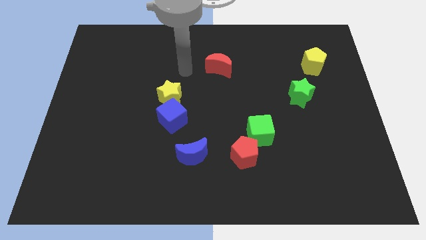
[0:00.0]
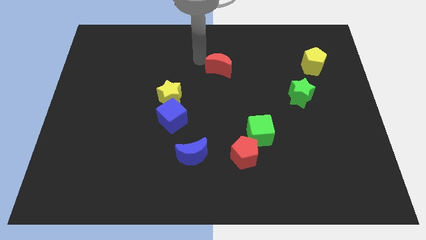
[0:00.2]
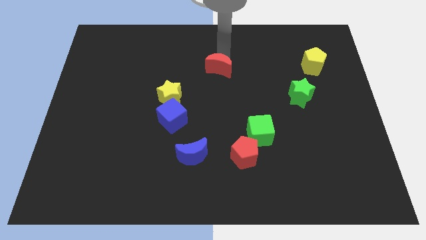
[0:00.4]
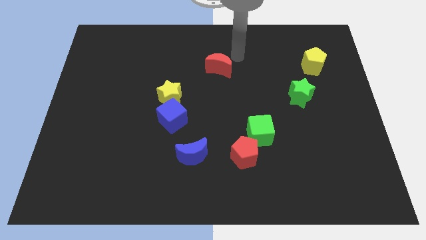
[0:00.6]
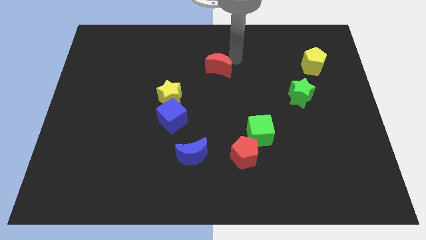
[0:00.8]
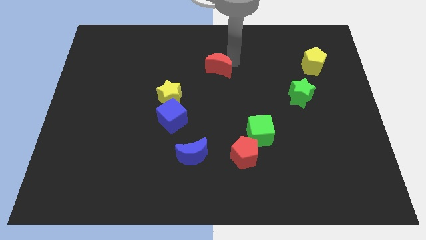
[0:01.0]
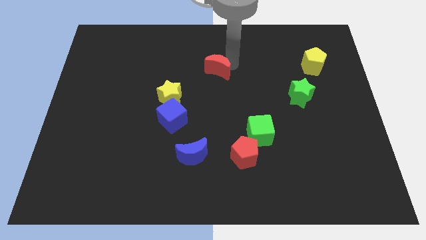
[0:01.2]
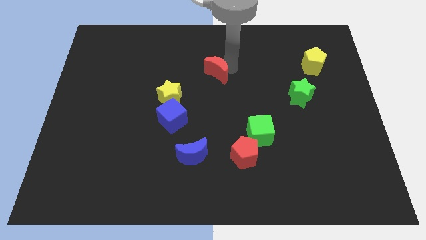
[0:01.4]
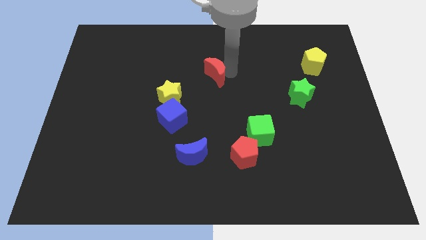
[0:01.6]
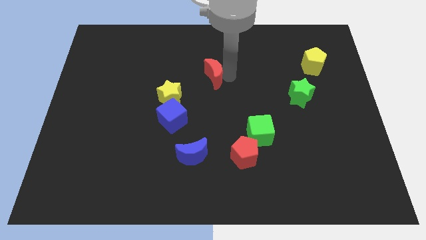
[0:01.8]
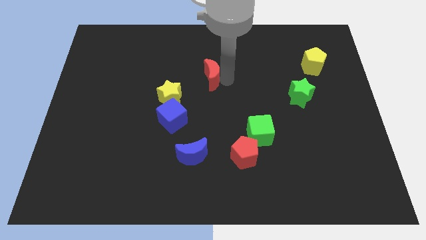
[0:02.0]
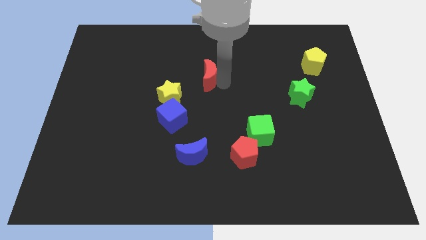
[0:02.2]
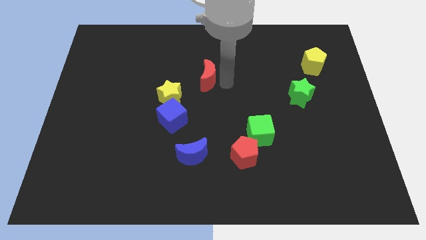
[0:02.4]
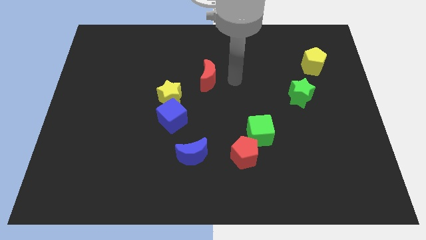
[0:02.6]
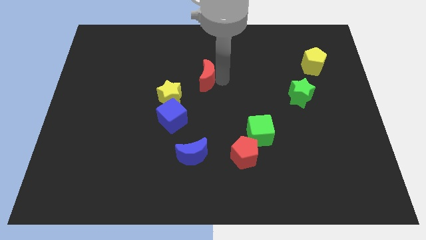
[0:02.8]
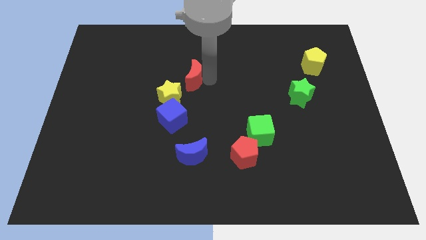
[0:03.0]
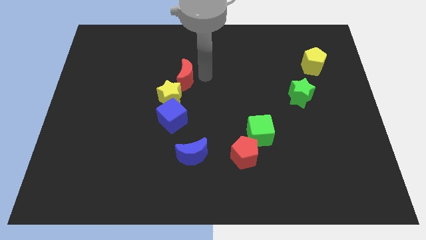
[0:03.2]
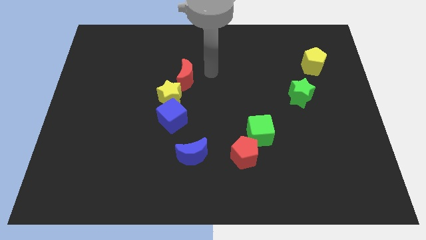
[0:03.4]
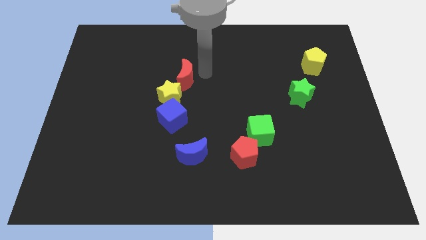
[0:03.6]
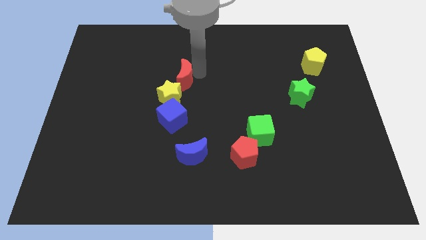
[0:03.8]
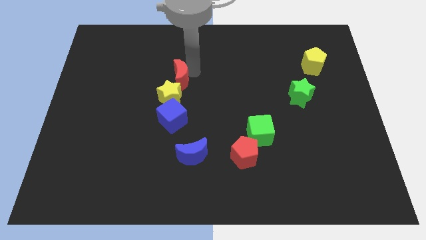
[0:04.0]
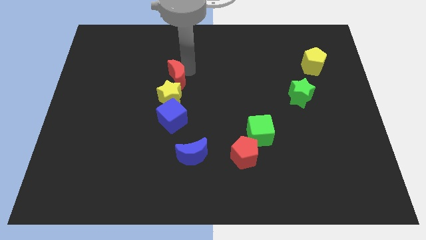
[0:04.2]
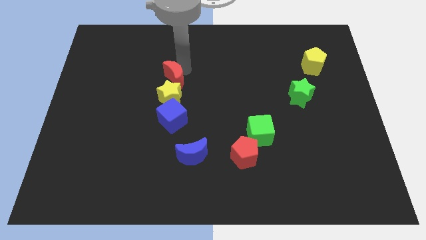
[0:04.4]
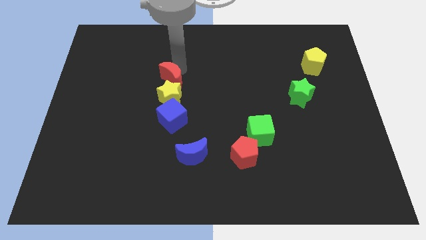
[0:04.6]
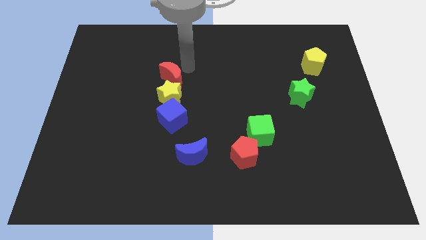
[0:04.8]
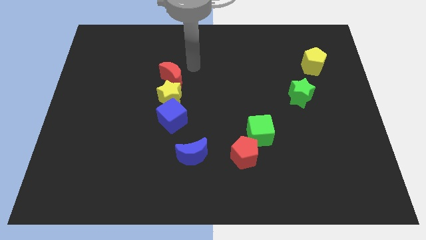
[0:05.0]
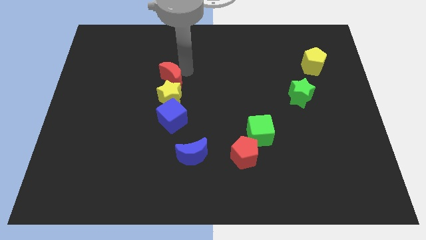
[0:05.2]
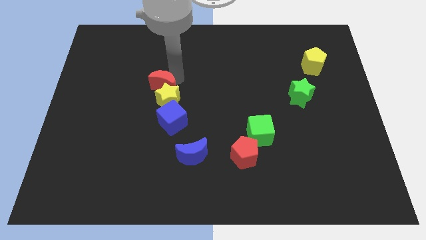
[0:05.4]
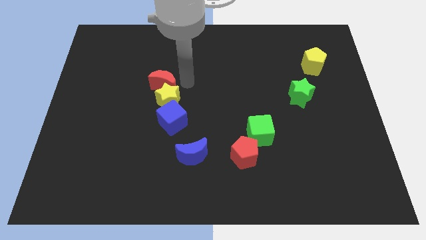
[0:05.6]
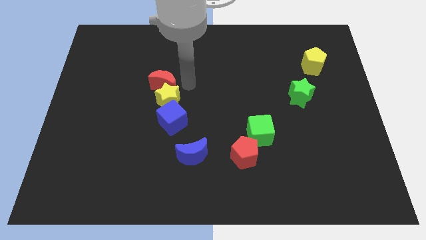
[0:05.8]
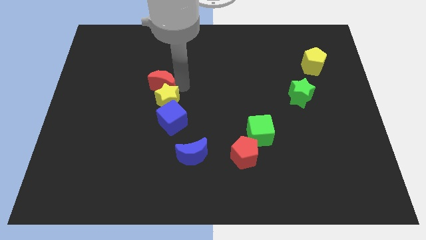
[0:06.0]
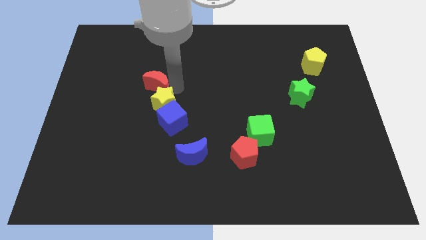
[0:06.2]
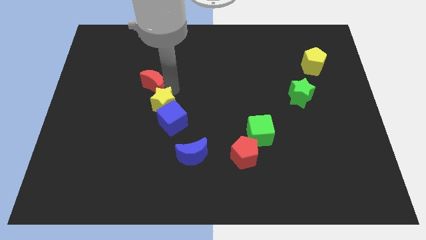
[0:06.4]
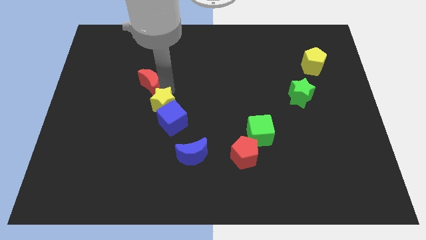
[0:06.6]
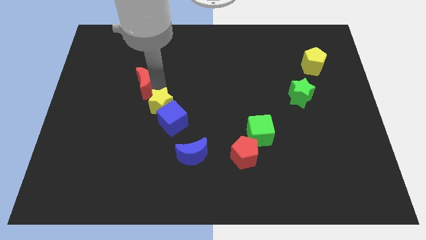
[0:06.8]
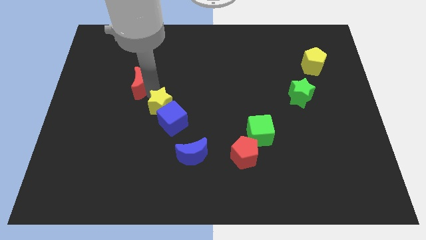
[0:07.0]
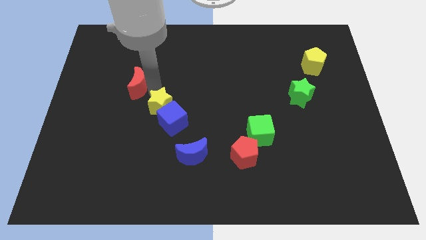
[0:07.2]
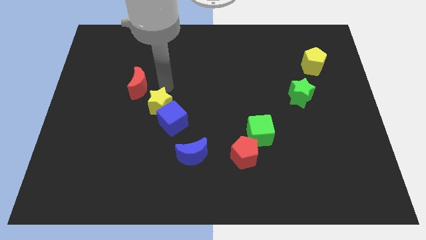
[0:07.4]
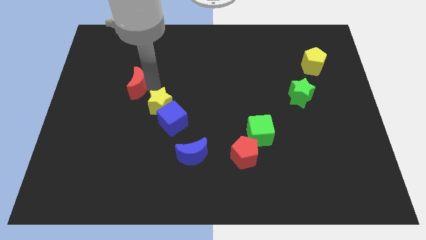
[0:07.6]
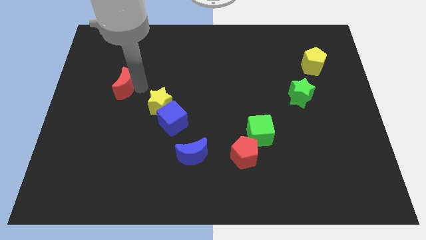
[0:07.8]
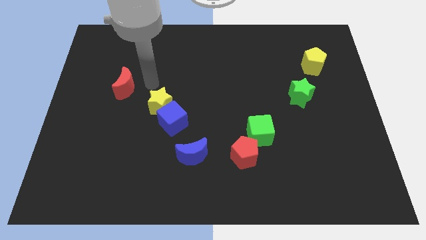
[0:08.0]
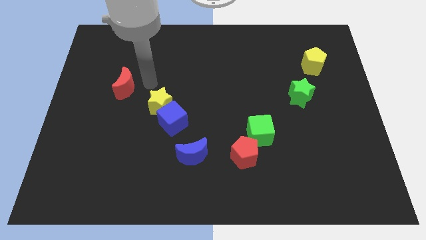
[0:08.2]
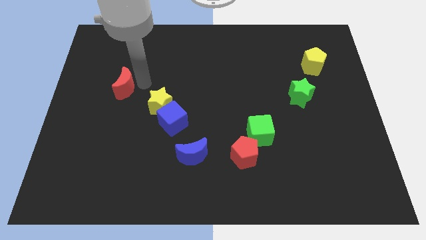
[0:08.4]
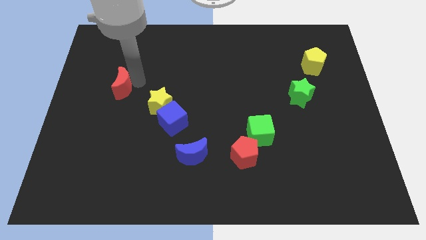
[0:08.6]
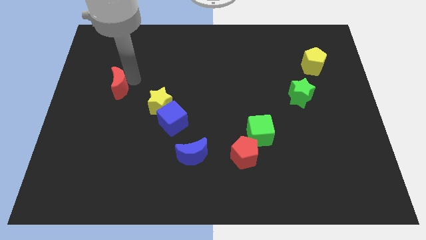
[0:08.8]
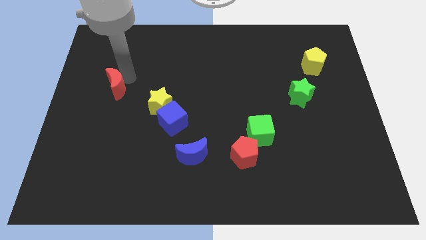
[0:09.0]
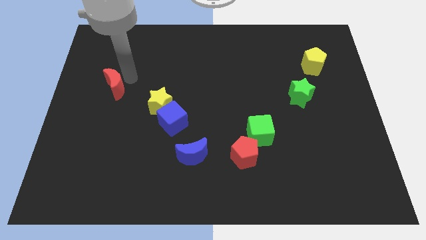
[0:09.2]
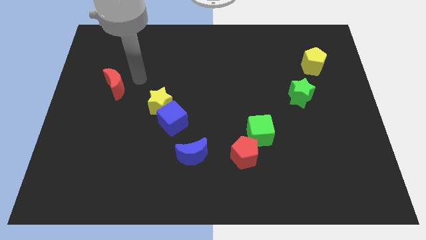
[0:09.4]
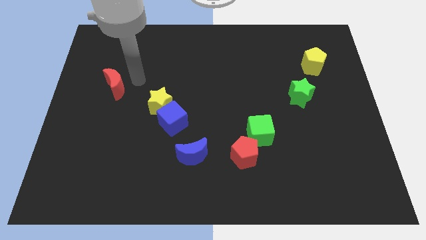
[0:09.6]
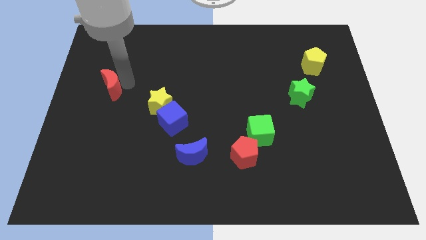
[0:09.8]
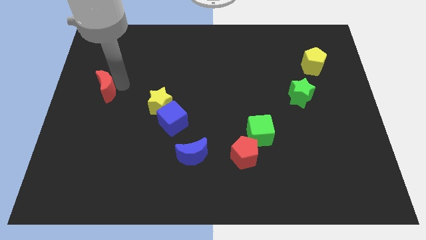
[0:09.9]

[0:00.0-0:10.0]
put the red moon to the left side
